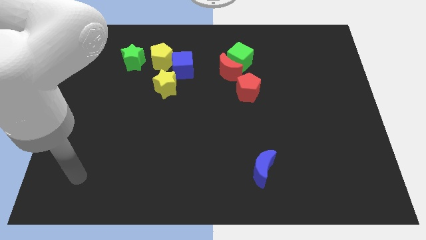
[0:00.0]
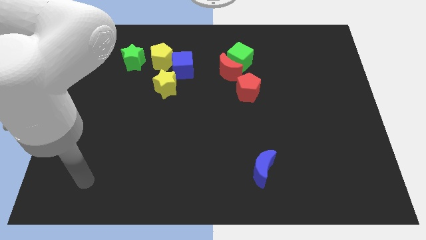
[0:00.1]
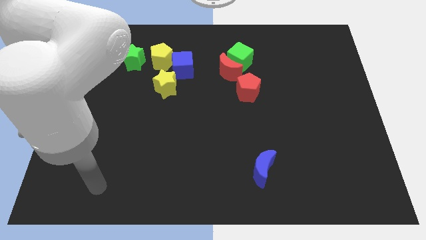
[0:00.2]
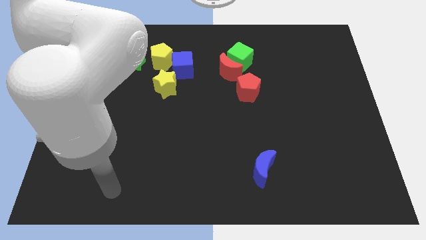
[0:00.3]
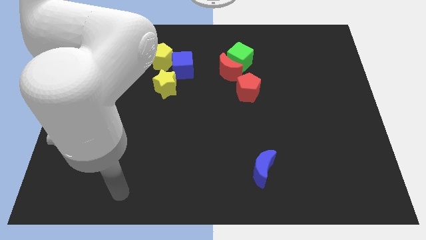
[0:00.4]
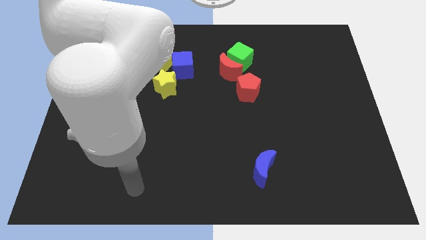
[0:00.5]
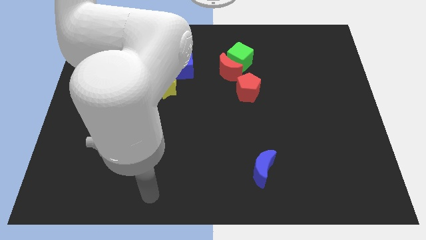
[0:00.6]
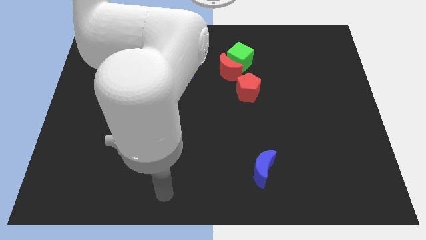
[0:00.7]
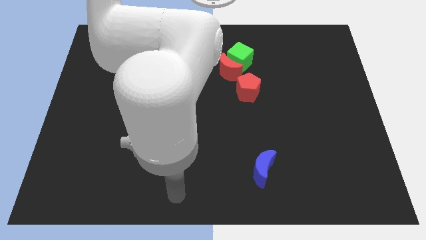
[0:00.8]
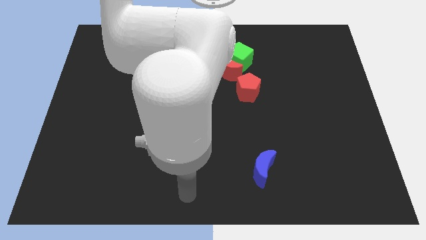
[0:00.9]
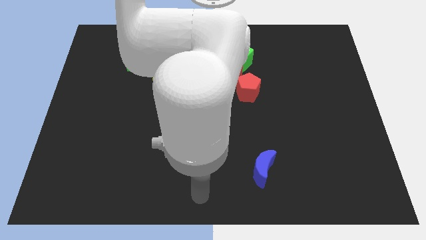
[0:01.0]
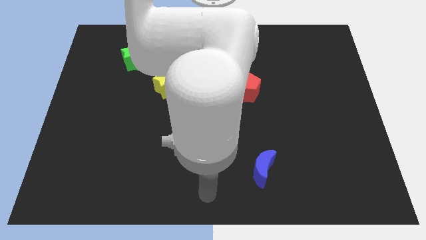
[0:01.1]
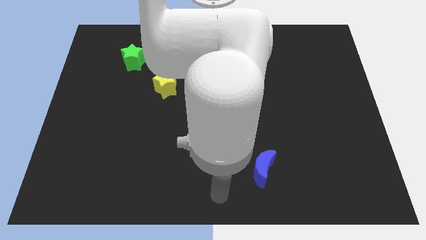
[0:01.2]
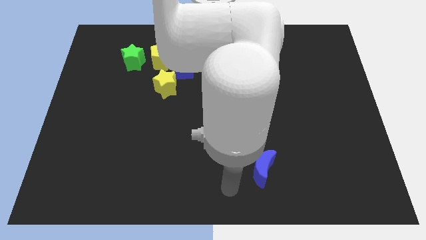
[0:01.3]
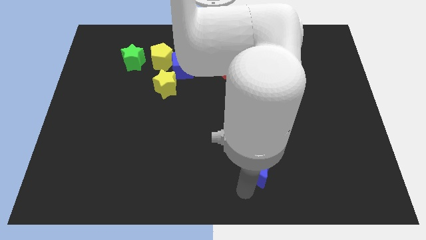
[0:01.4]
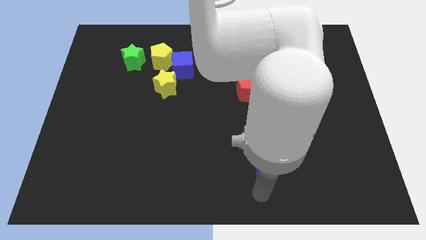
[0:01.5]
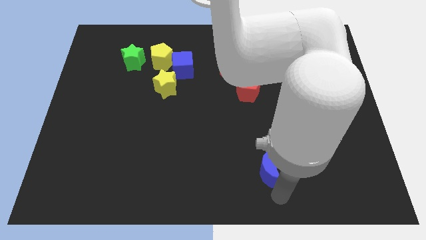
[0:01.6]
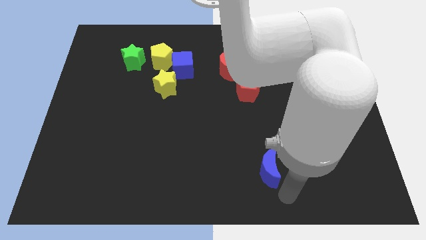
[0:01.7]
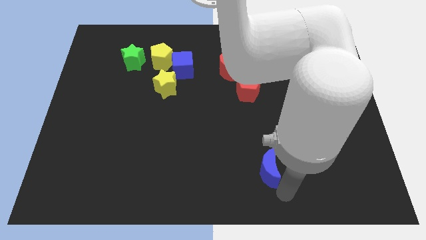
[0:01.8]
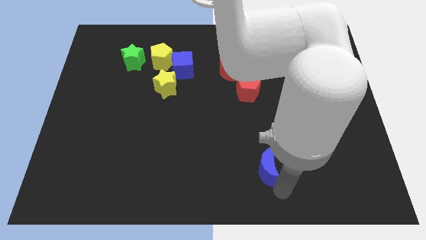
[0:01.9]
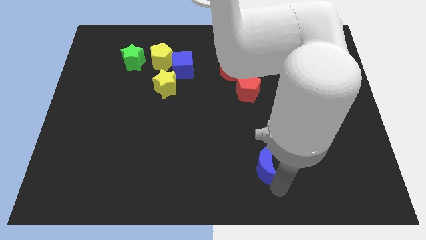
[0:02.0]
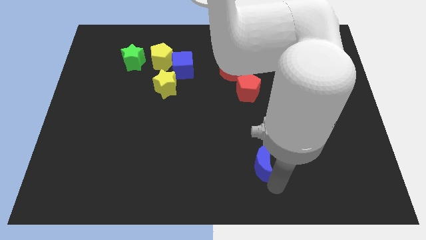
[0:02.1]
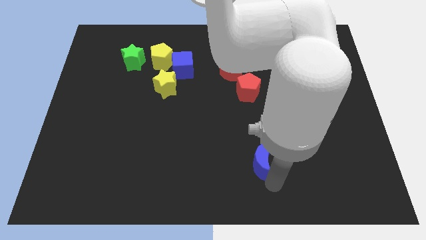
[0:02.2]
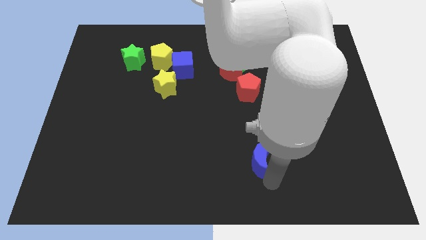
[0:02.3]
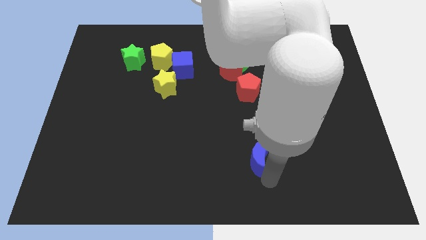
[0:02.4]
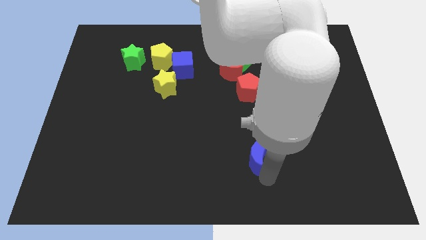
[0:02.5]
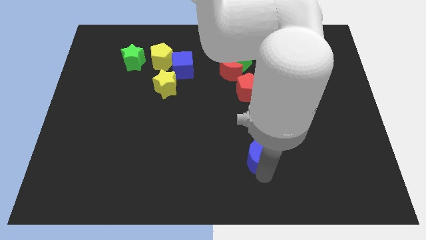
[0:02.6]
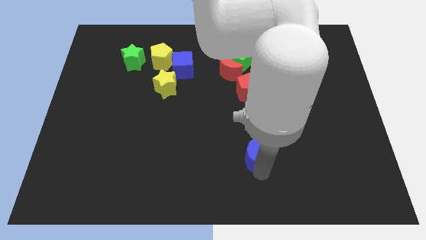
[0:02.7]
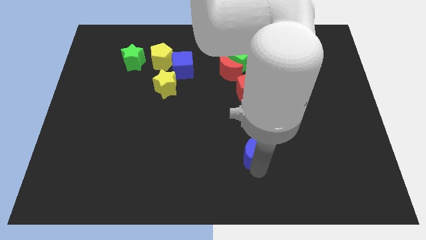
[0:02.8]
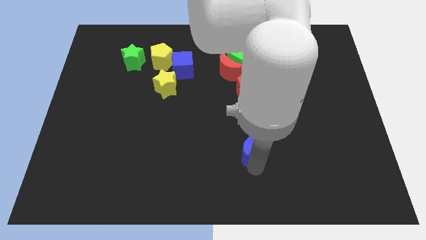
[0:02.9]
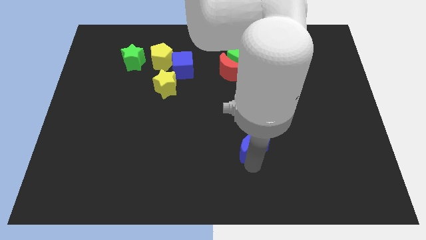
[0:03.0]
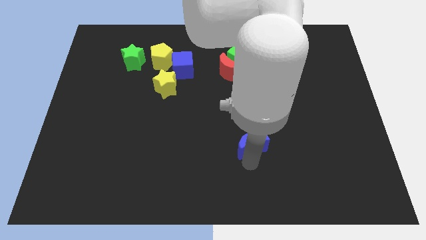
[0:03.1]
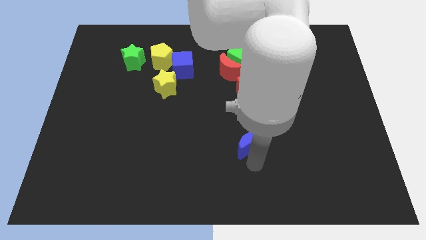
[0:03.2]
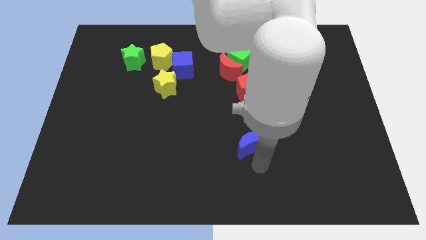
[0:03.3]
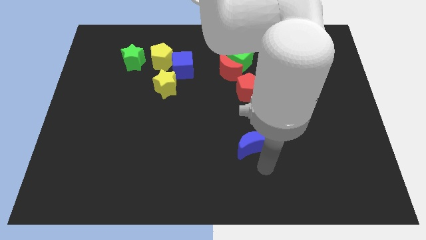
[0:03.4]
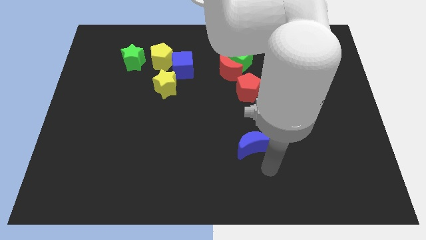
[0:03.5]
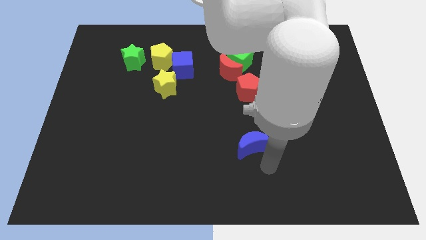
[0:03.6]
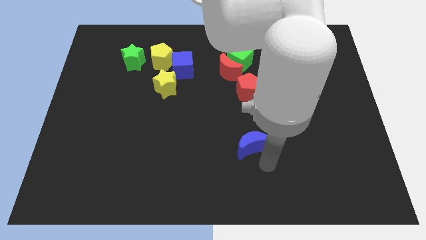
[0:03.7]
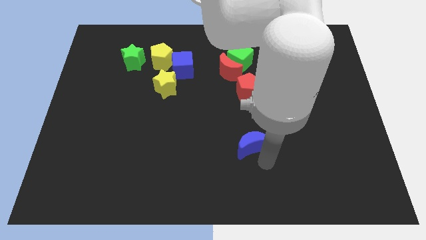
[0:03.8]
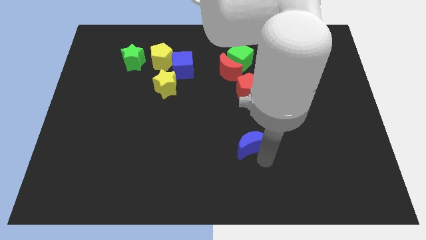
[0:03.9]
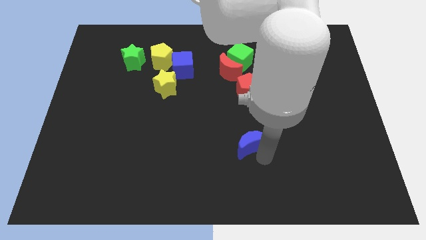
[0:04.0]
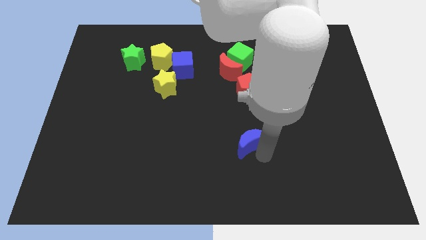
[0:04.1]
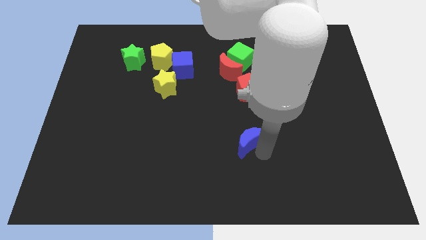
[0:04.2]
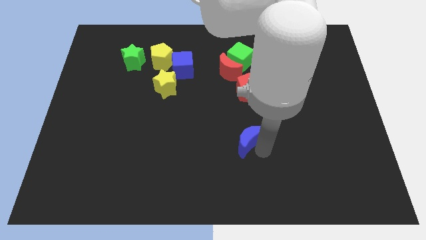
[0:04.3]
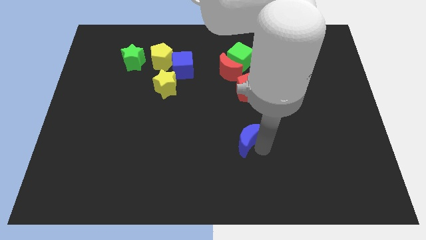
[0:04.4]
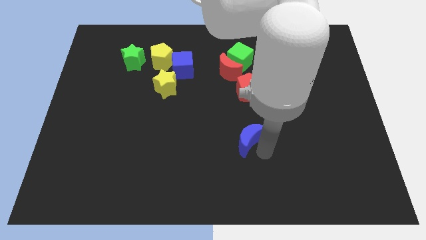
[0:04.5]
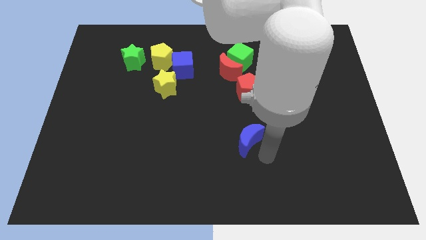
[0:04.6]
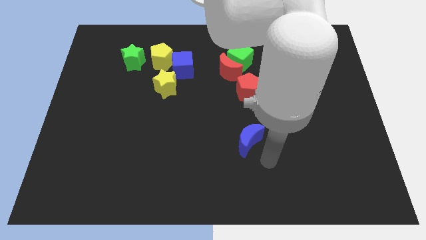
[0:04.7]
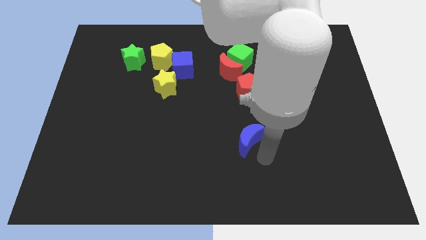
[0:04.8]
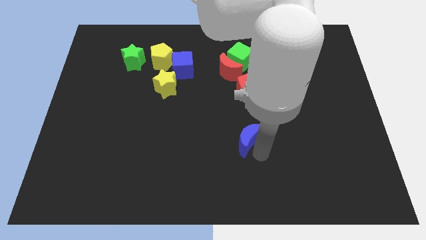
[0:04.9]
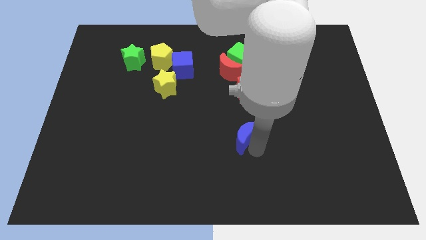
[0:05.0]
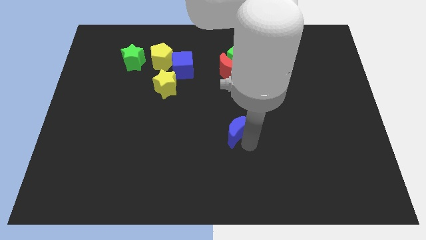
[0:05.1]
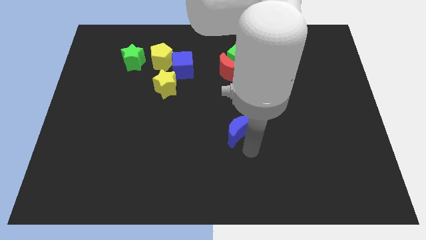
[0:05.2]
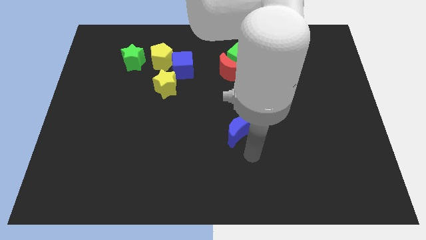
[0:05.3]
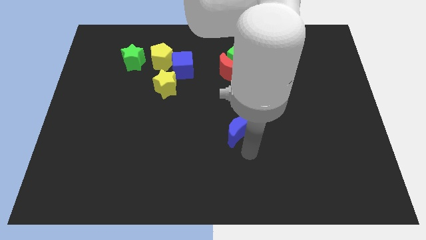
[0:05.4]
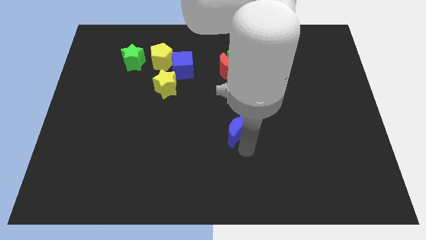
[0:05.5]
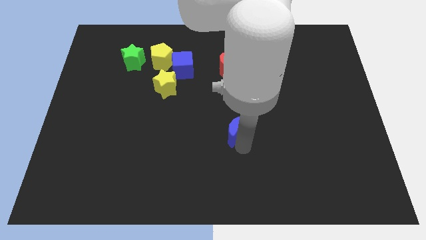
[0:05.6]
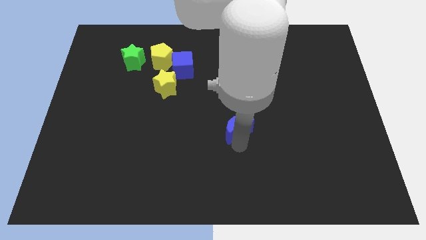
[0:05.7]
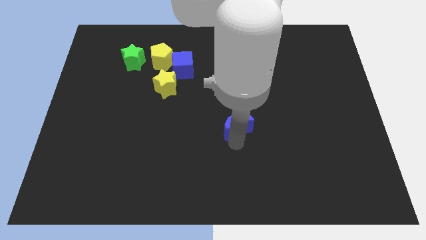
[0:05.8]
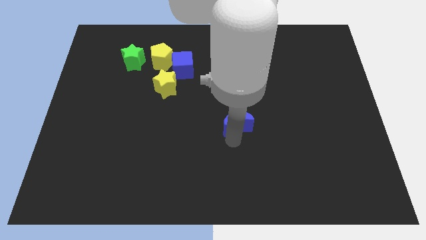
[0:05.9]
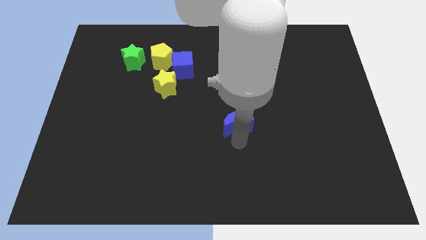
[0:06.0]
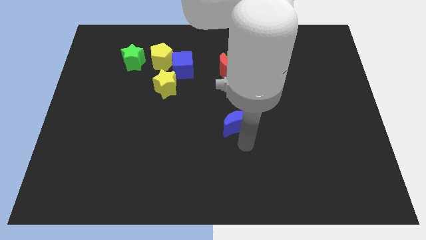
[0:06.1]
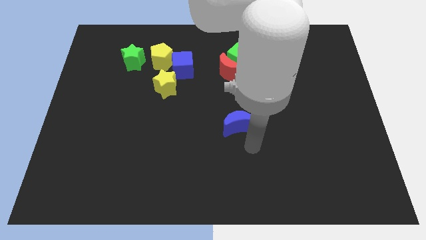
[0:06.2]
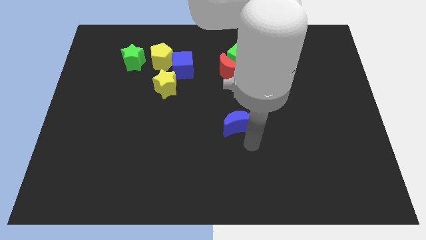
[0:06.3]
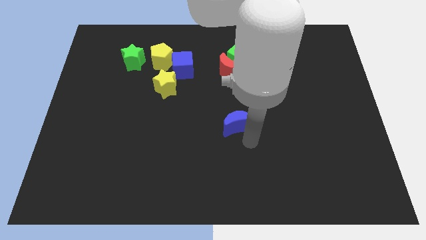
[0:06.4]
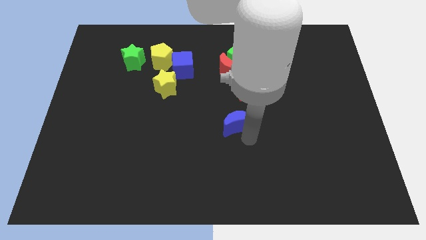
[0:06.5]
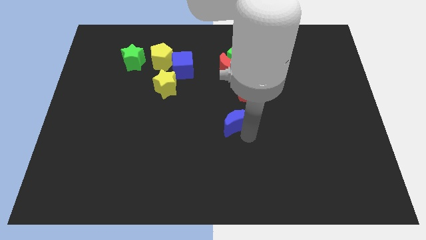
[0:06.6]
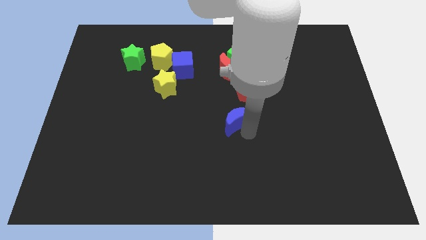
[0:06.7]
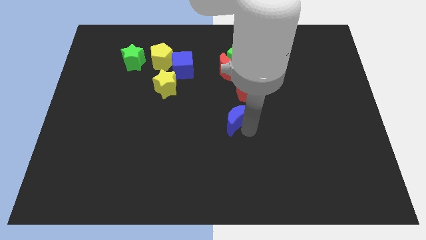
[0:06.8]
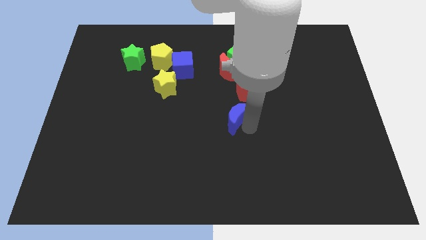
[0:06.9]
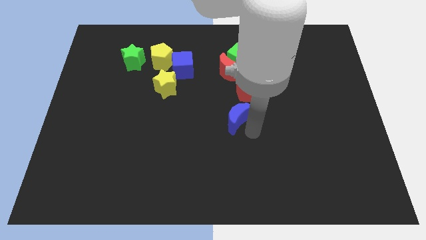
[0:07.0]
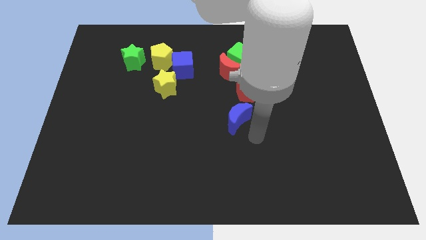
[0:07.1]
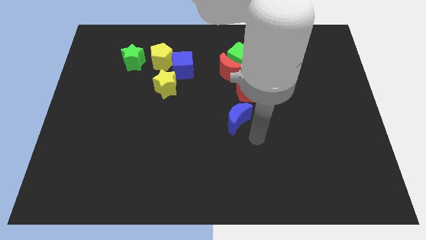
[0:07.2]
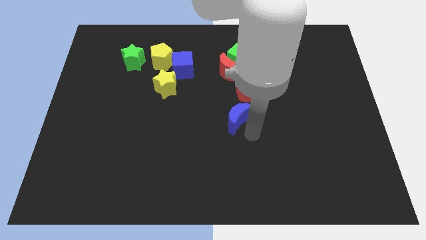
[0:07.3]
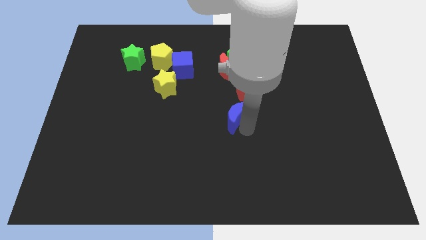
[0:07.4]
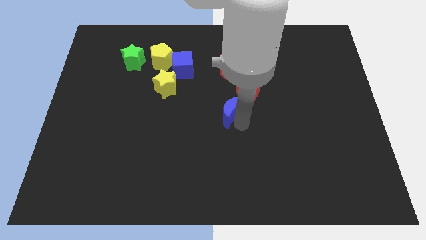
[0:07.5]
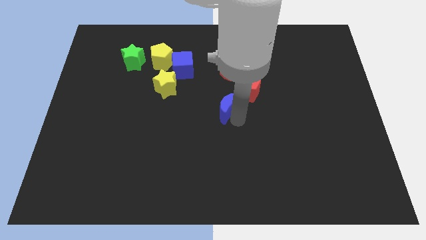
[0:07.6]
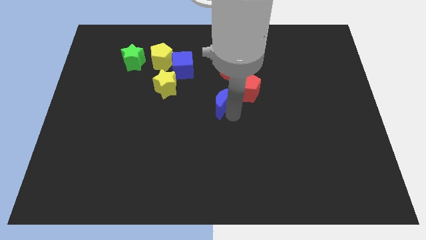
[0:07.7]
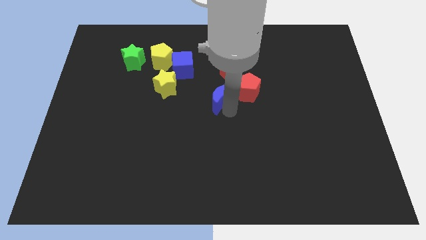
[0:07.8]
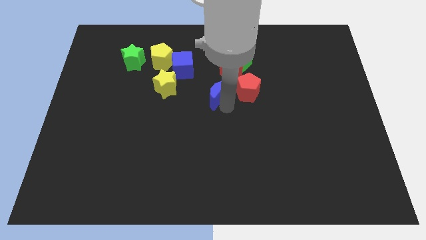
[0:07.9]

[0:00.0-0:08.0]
slide the blue moon to the bottom right side of the blue cube
